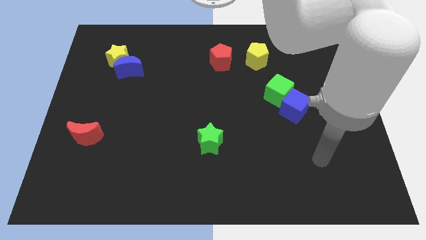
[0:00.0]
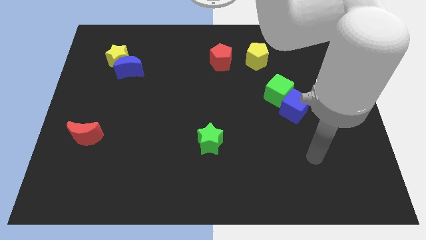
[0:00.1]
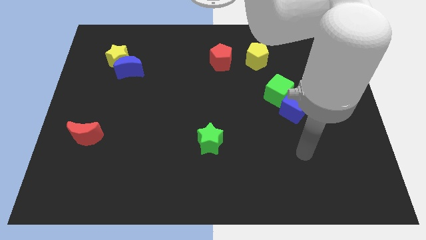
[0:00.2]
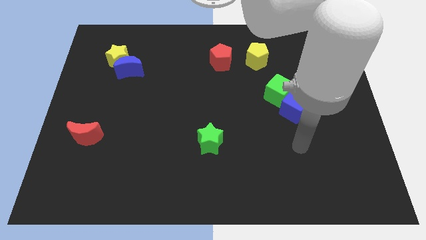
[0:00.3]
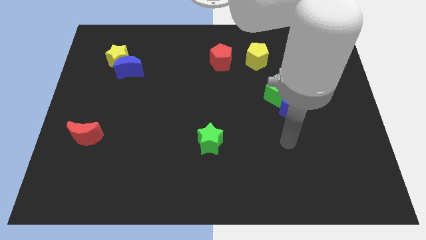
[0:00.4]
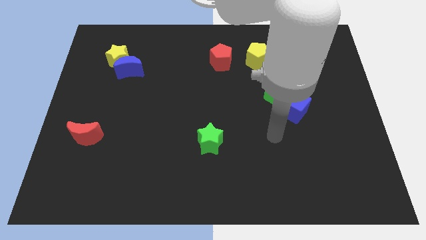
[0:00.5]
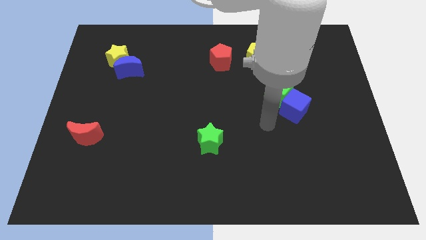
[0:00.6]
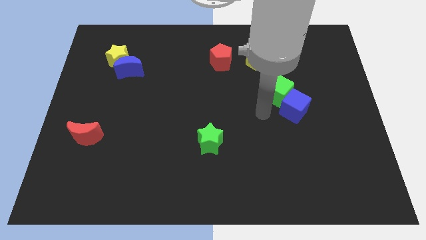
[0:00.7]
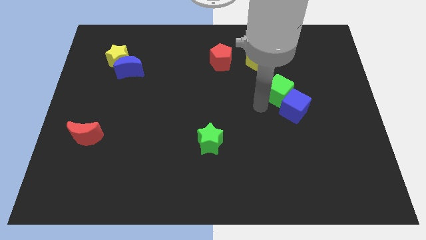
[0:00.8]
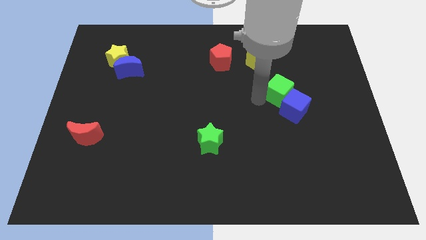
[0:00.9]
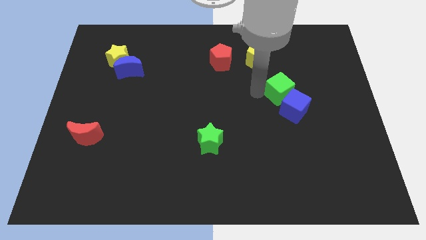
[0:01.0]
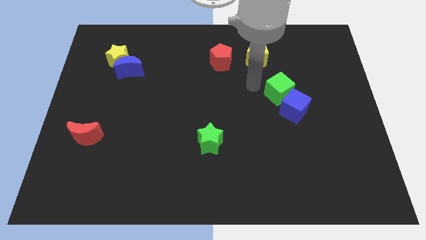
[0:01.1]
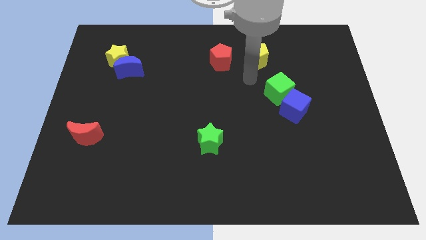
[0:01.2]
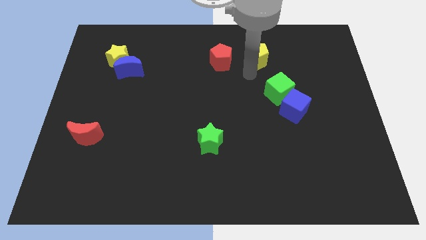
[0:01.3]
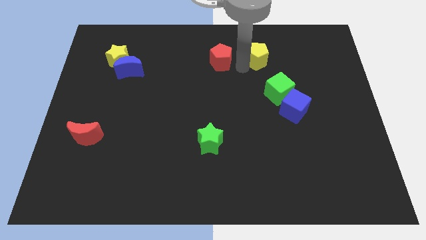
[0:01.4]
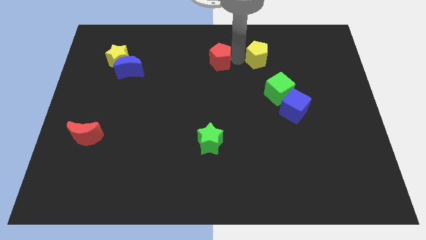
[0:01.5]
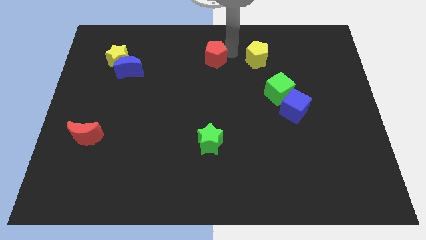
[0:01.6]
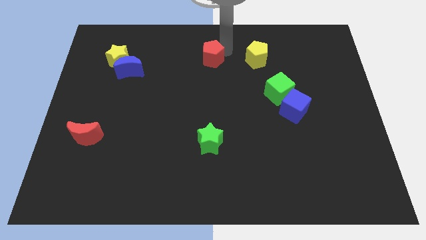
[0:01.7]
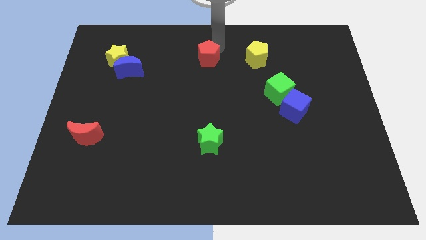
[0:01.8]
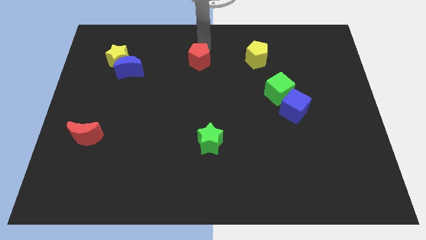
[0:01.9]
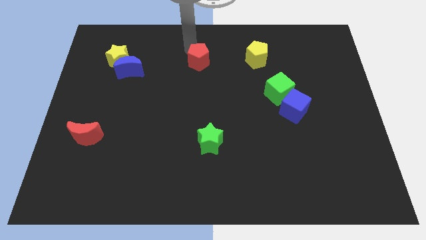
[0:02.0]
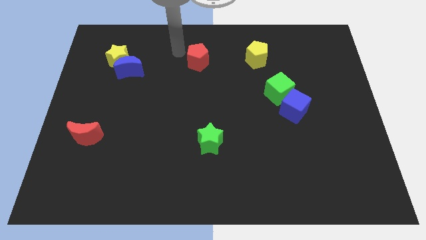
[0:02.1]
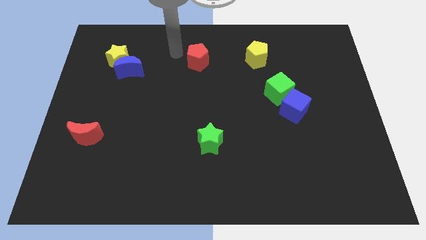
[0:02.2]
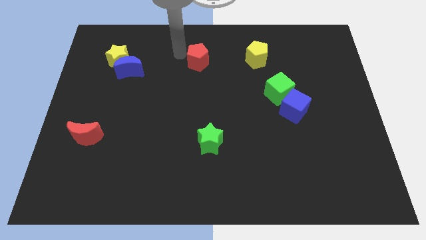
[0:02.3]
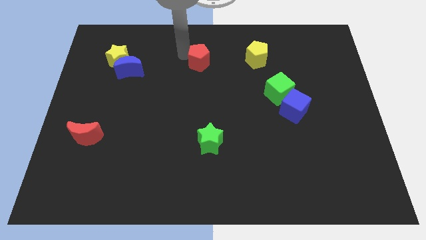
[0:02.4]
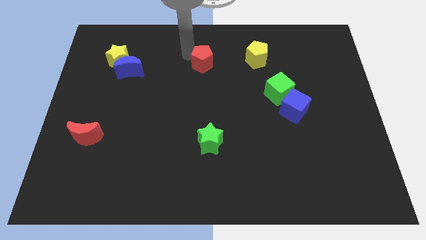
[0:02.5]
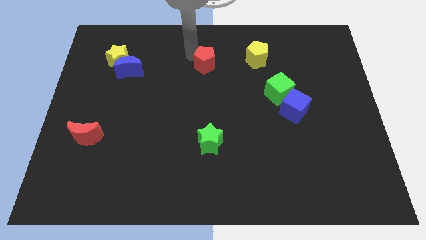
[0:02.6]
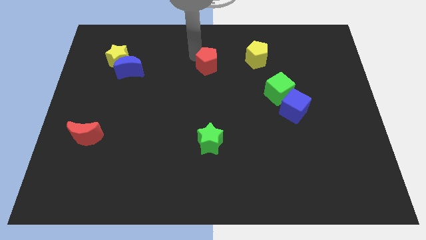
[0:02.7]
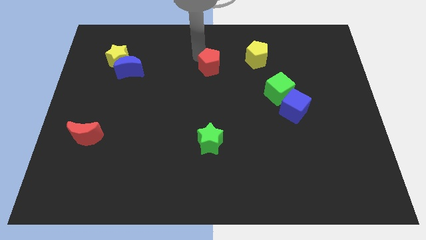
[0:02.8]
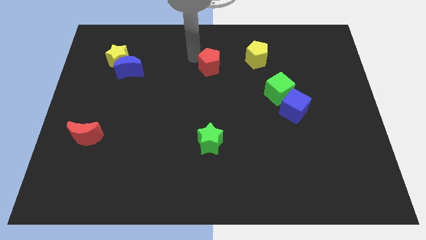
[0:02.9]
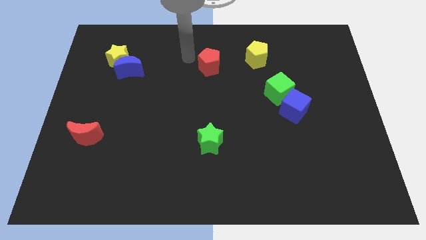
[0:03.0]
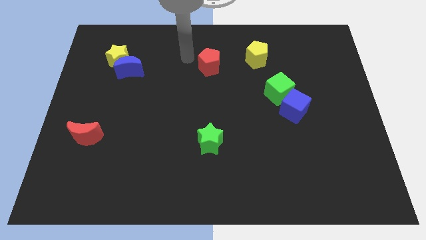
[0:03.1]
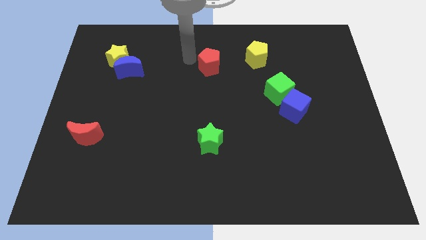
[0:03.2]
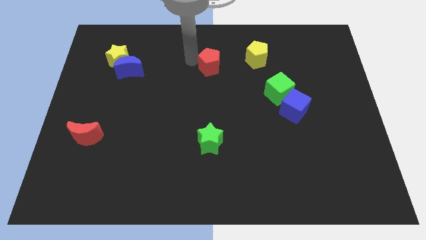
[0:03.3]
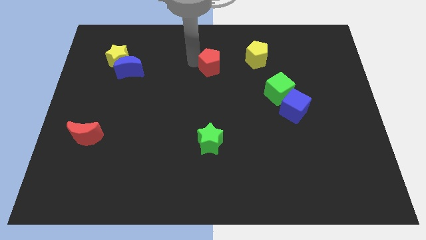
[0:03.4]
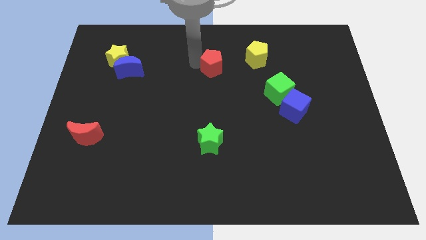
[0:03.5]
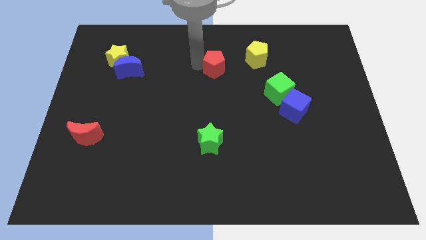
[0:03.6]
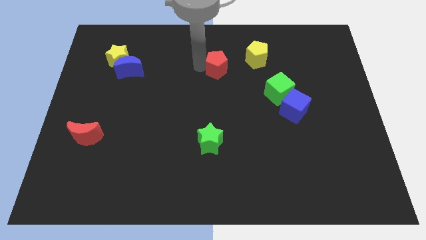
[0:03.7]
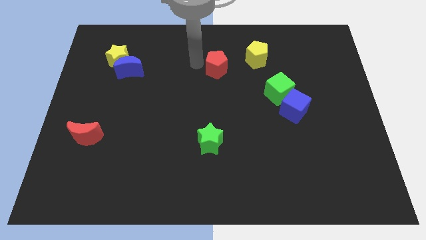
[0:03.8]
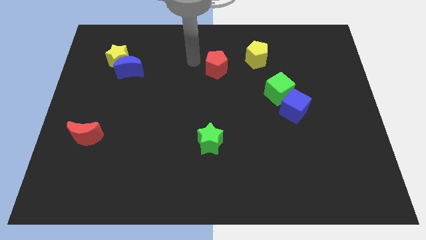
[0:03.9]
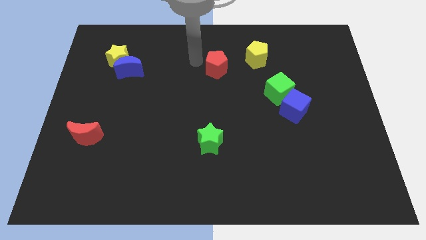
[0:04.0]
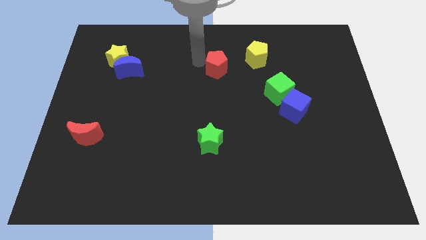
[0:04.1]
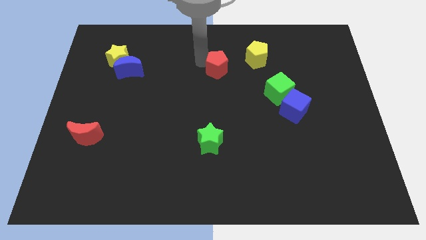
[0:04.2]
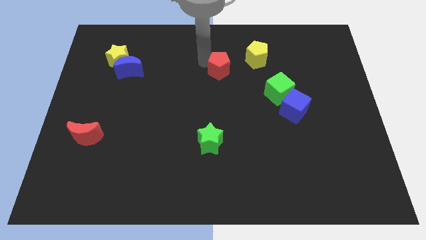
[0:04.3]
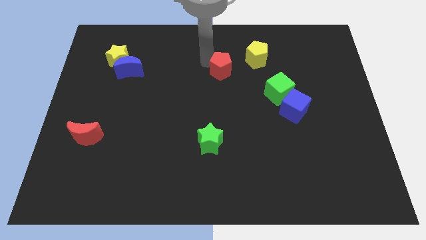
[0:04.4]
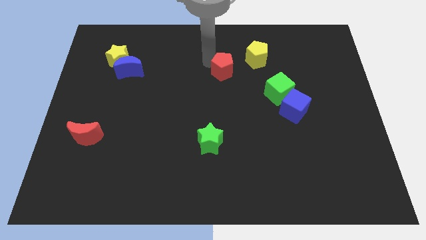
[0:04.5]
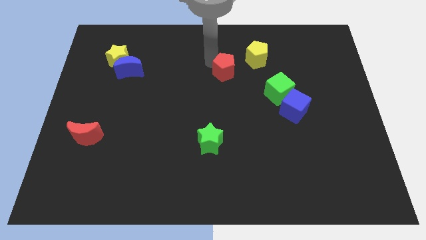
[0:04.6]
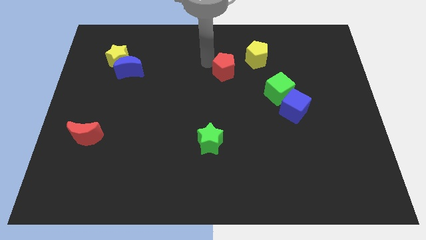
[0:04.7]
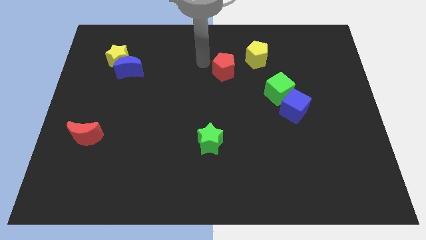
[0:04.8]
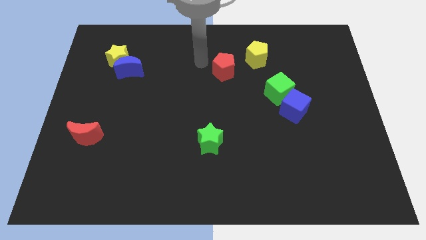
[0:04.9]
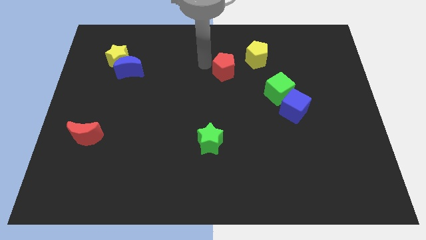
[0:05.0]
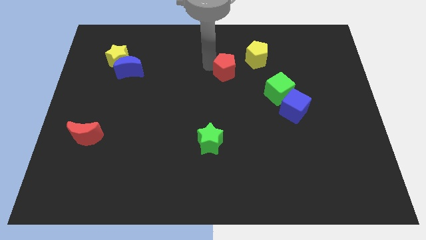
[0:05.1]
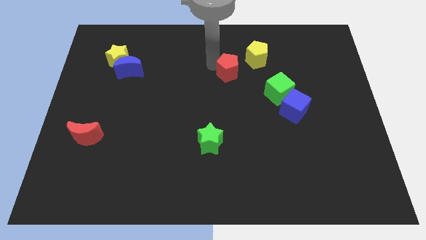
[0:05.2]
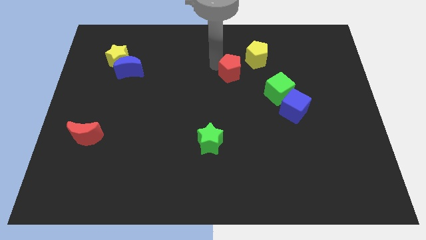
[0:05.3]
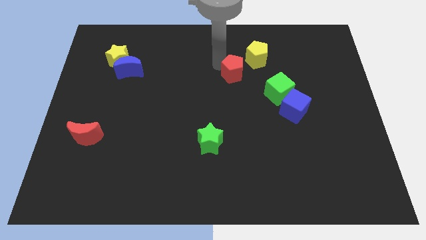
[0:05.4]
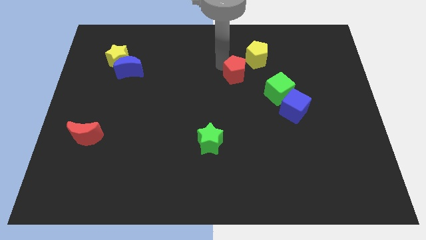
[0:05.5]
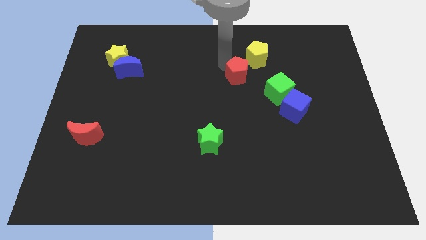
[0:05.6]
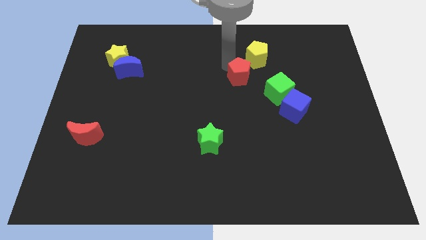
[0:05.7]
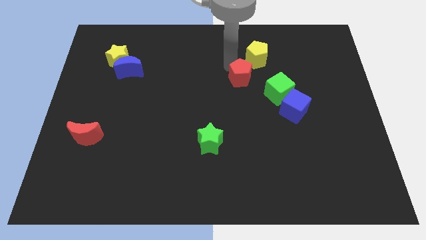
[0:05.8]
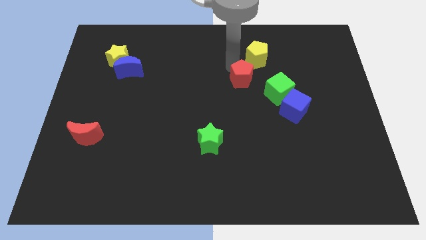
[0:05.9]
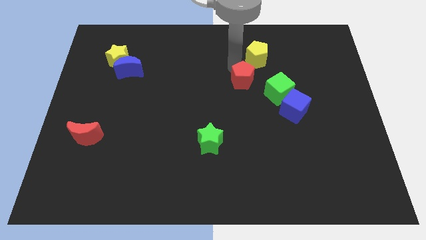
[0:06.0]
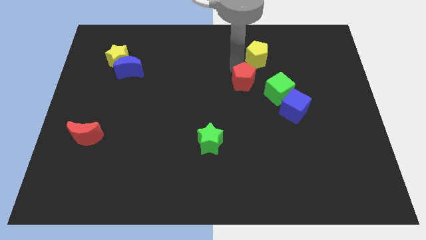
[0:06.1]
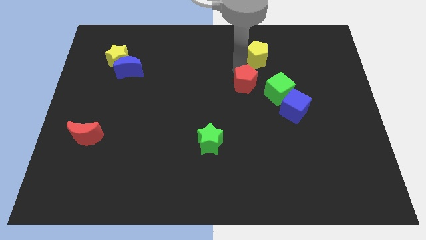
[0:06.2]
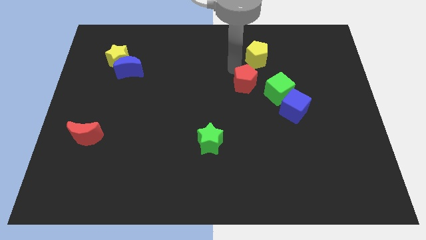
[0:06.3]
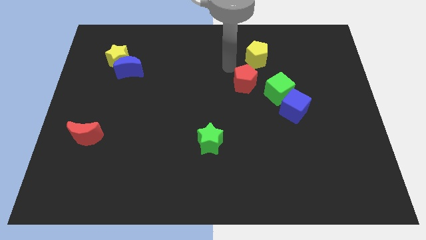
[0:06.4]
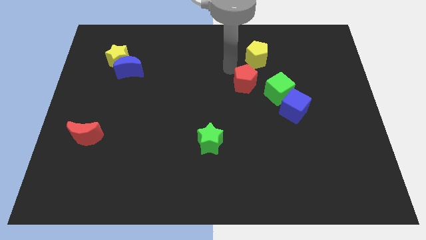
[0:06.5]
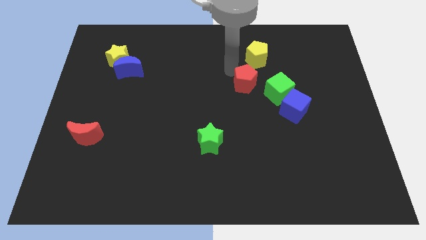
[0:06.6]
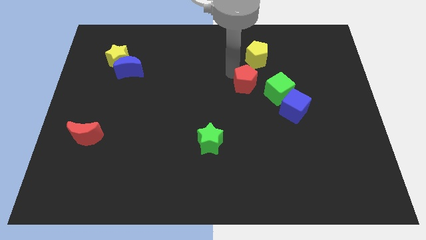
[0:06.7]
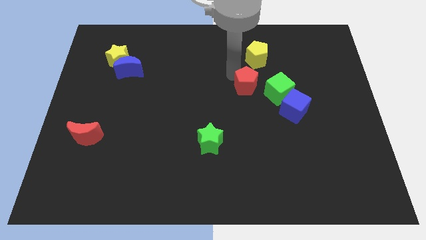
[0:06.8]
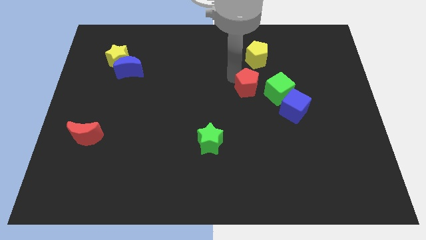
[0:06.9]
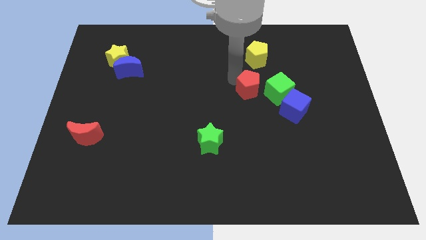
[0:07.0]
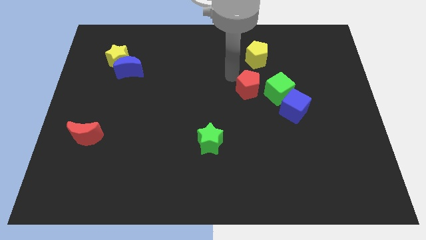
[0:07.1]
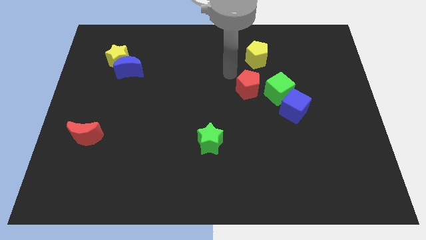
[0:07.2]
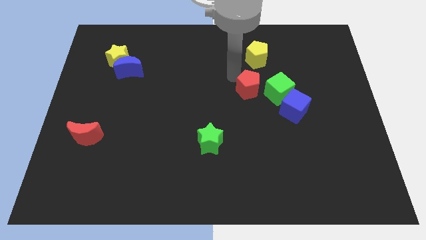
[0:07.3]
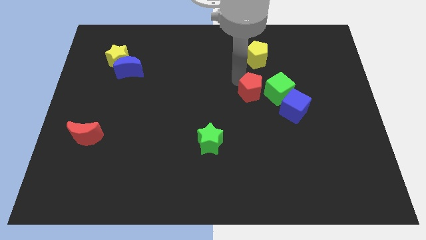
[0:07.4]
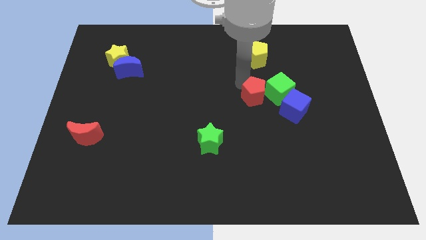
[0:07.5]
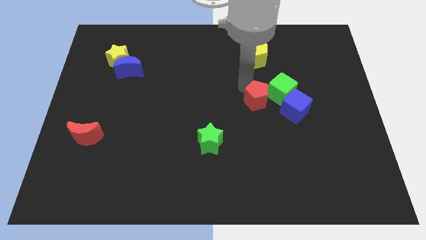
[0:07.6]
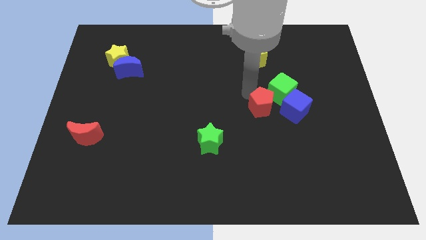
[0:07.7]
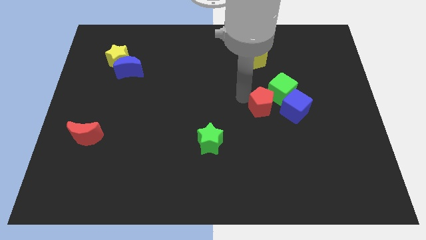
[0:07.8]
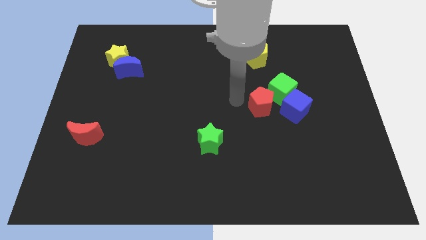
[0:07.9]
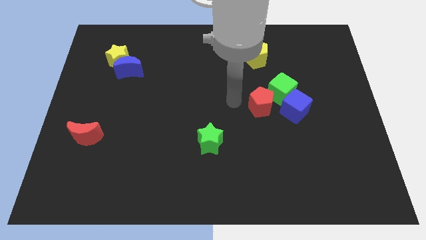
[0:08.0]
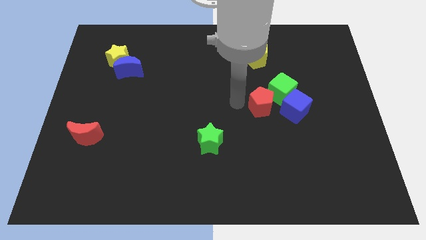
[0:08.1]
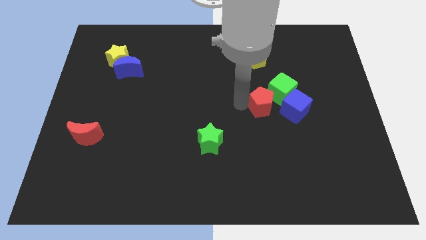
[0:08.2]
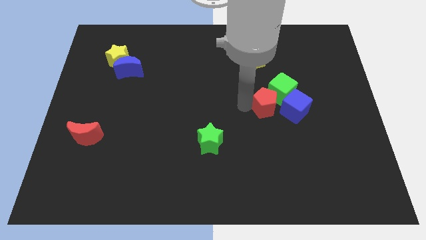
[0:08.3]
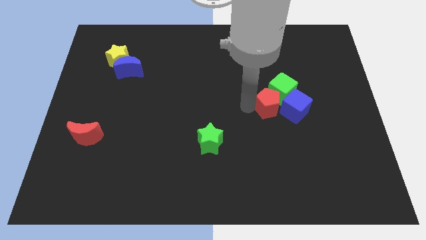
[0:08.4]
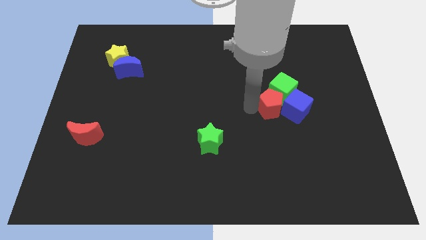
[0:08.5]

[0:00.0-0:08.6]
move the red pentagon to the blue cube
